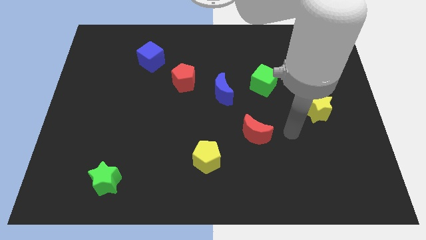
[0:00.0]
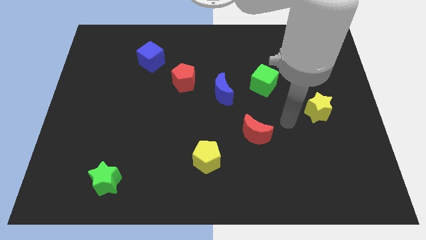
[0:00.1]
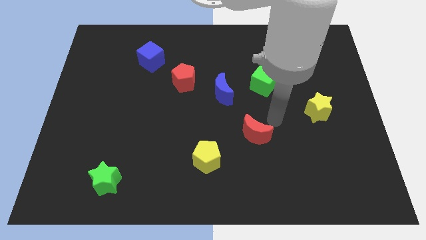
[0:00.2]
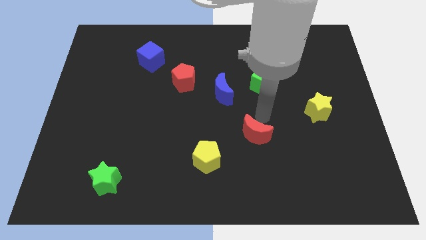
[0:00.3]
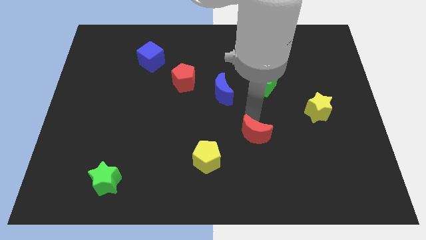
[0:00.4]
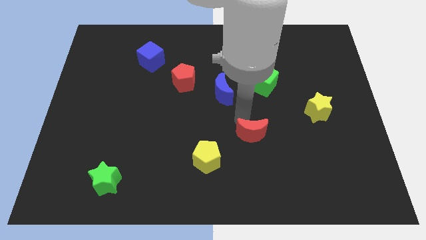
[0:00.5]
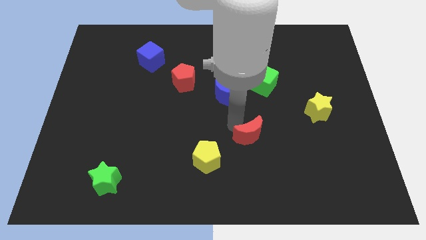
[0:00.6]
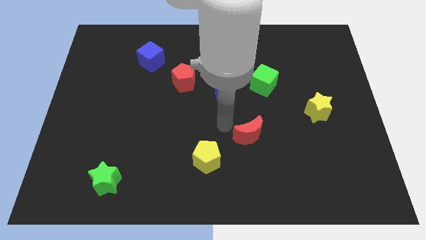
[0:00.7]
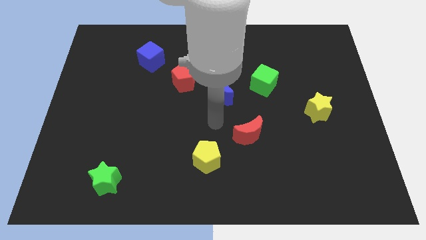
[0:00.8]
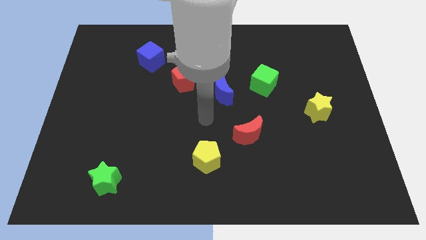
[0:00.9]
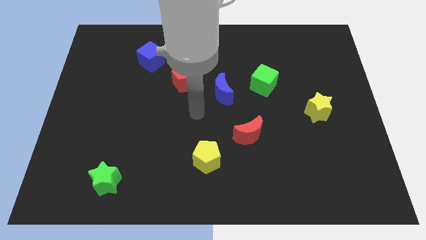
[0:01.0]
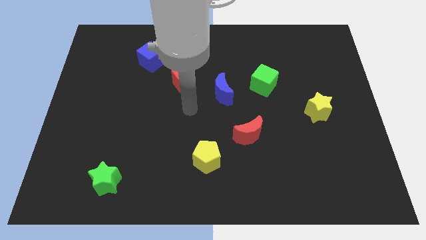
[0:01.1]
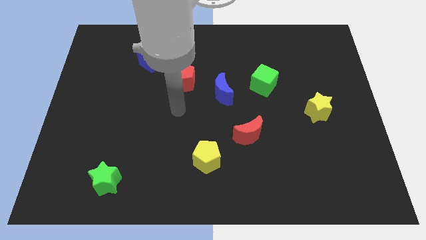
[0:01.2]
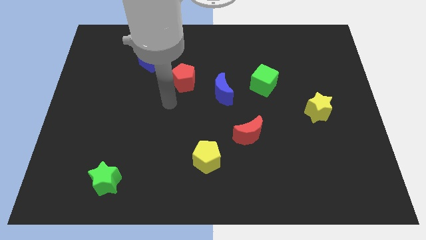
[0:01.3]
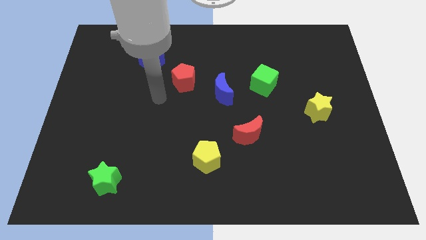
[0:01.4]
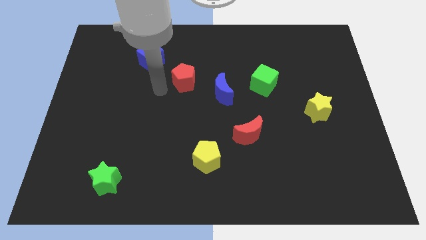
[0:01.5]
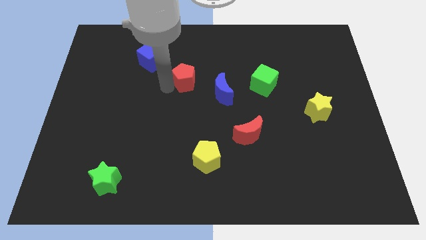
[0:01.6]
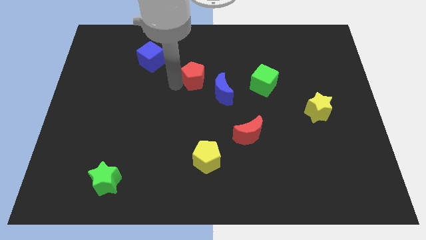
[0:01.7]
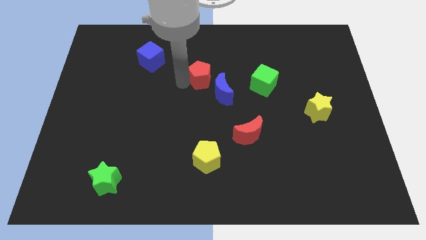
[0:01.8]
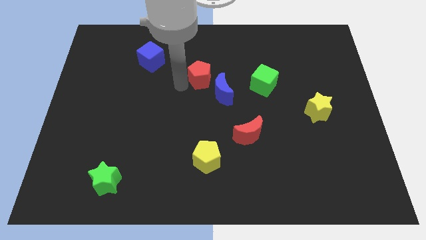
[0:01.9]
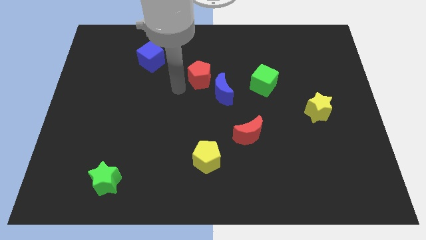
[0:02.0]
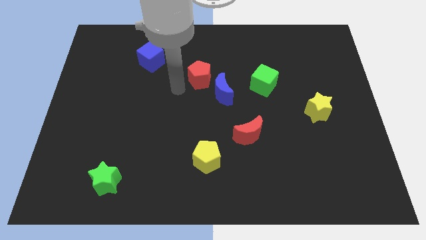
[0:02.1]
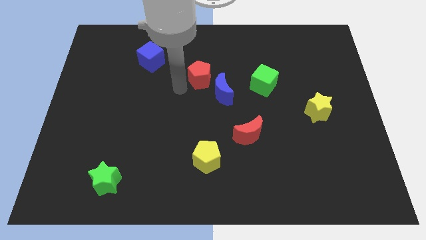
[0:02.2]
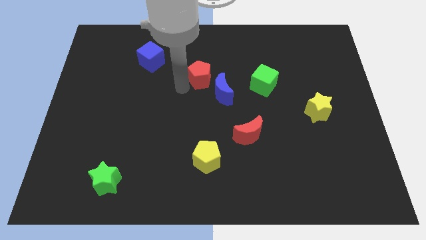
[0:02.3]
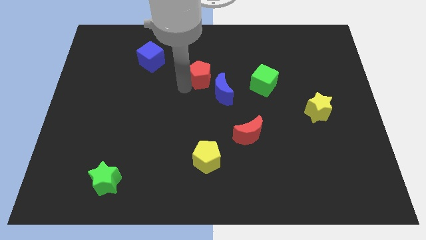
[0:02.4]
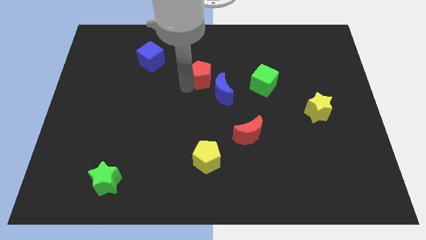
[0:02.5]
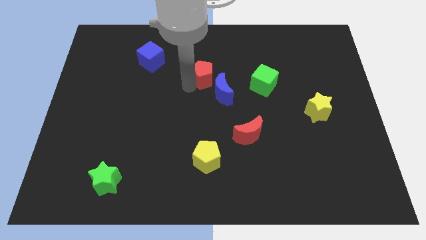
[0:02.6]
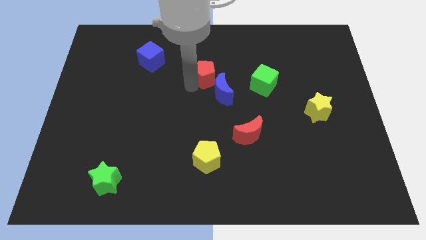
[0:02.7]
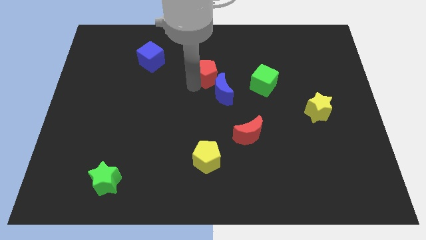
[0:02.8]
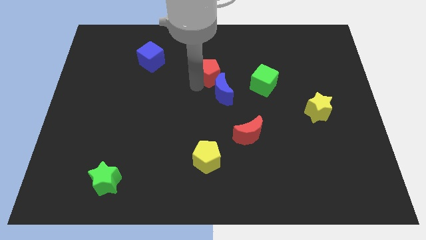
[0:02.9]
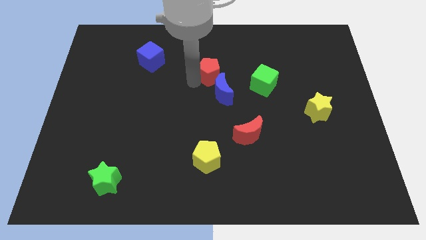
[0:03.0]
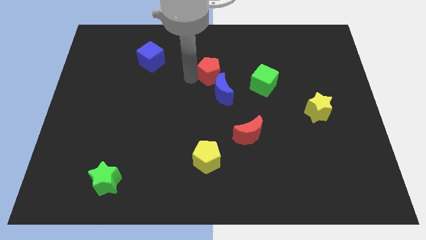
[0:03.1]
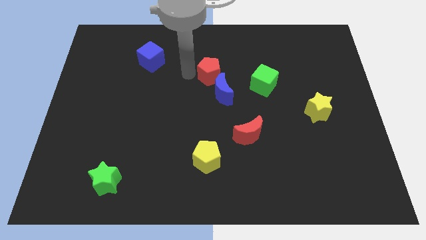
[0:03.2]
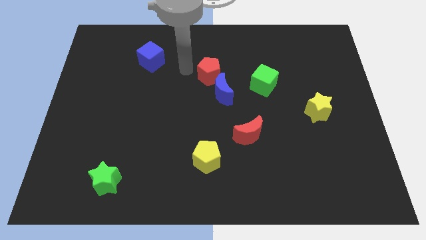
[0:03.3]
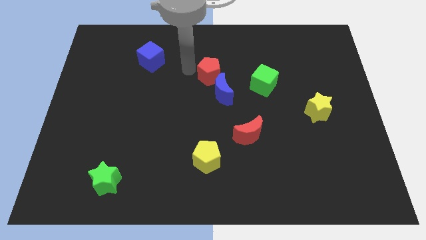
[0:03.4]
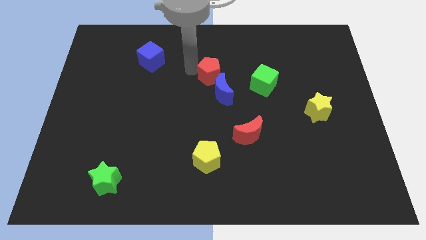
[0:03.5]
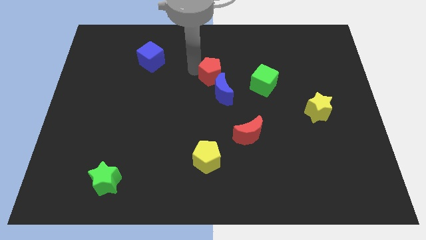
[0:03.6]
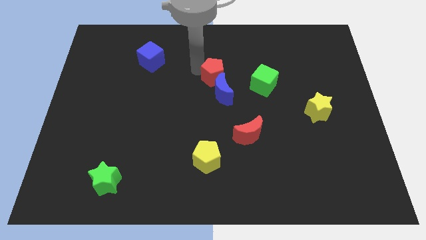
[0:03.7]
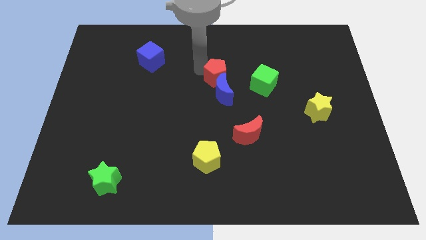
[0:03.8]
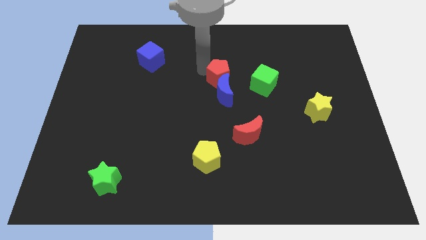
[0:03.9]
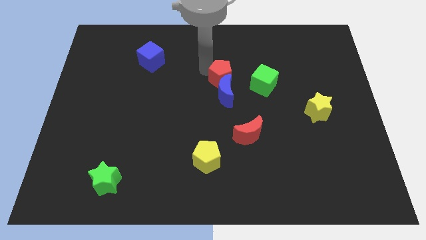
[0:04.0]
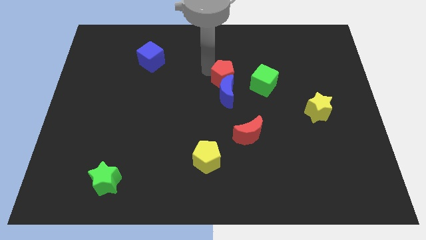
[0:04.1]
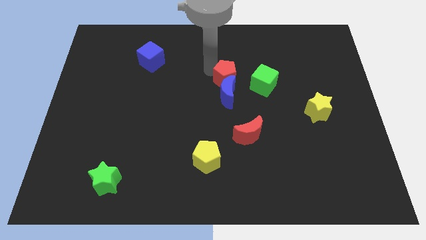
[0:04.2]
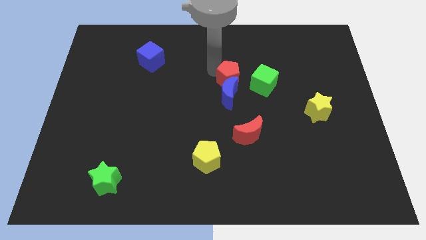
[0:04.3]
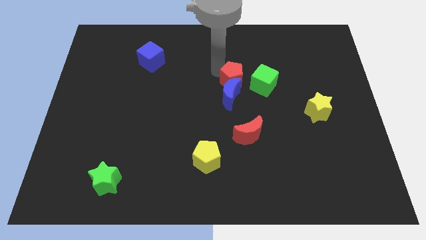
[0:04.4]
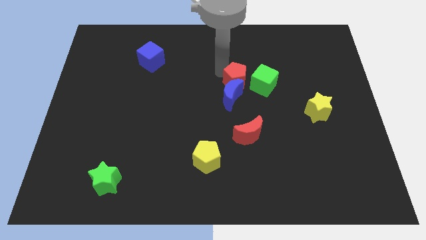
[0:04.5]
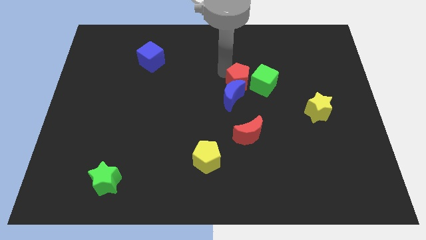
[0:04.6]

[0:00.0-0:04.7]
push the red pentagon to the green cube

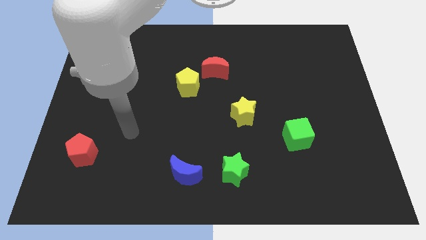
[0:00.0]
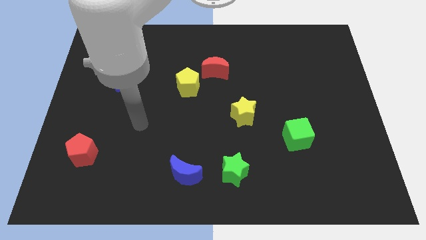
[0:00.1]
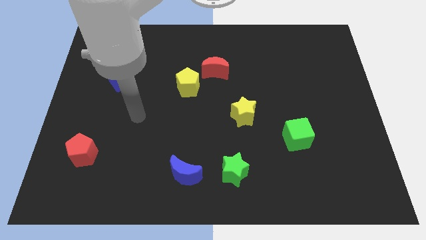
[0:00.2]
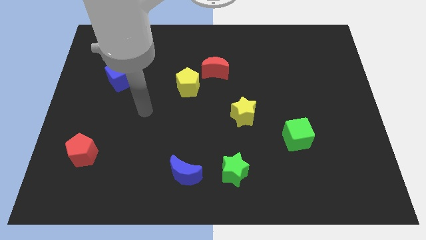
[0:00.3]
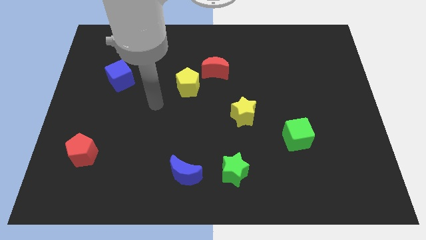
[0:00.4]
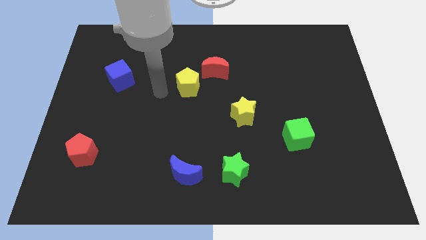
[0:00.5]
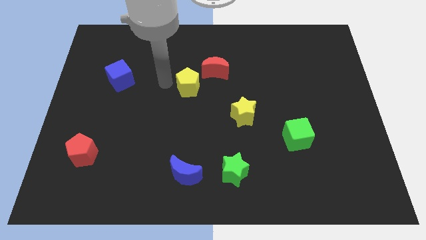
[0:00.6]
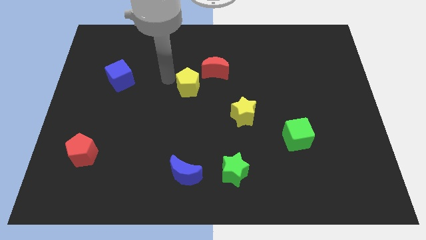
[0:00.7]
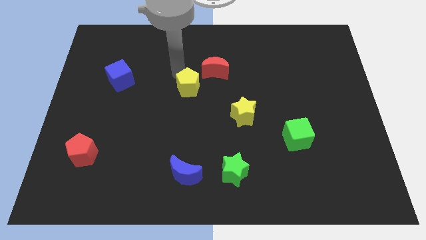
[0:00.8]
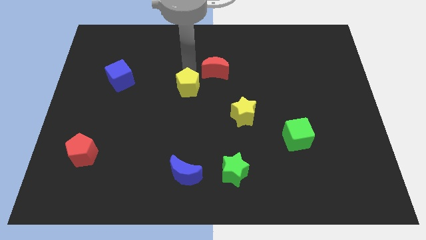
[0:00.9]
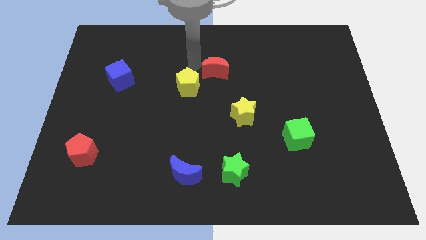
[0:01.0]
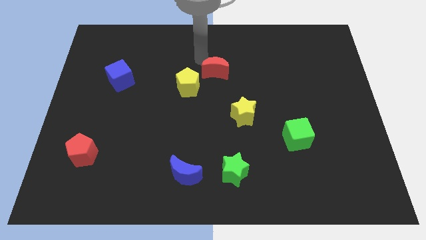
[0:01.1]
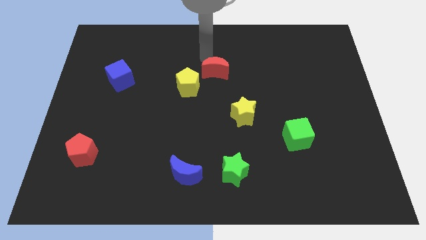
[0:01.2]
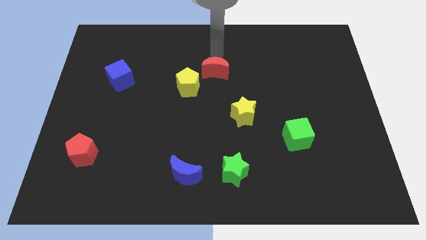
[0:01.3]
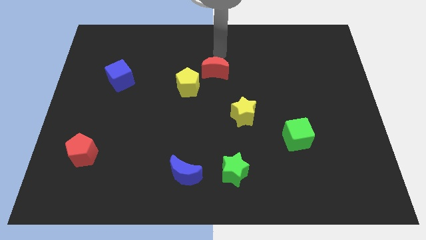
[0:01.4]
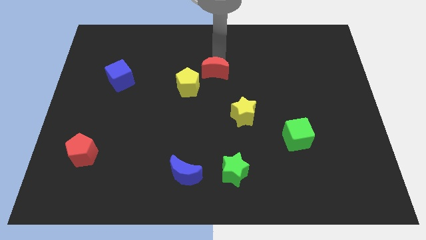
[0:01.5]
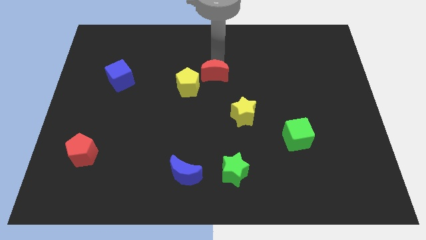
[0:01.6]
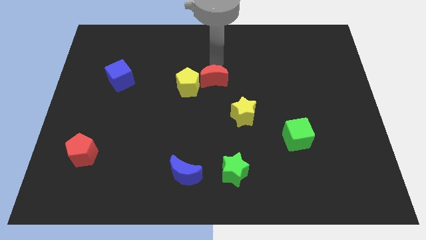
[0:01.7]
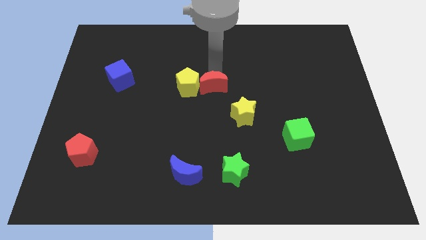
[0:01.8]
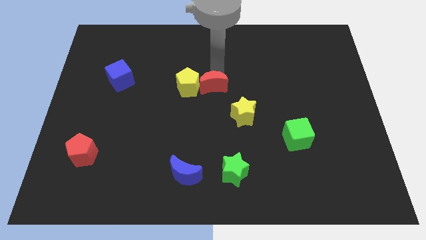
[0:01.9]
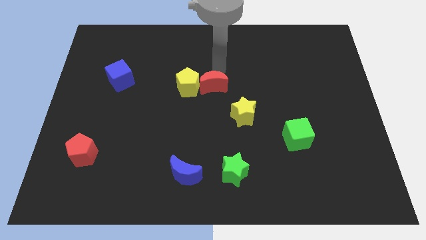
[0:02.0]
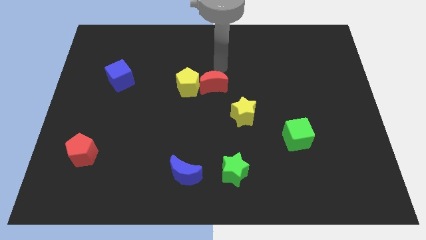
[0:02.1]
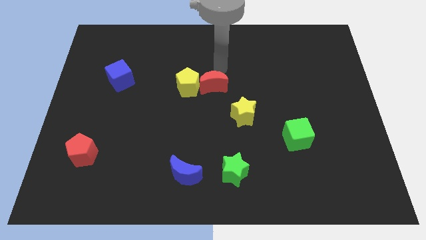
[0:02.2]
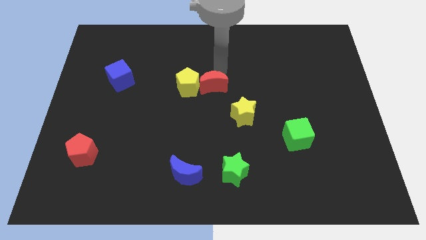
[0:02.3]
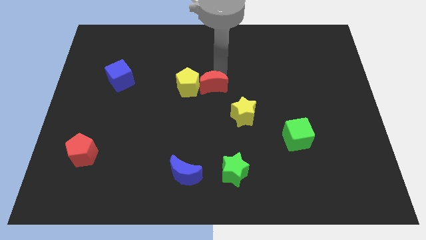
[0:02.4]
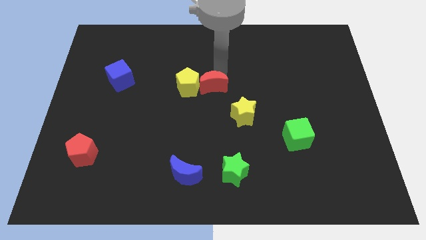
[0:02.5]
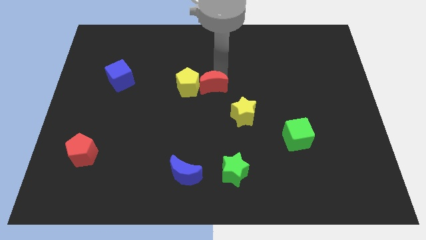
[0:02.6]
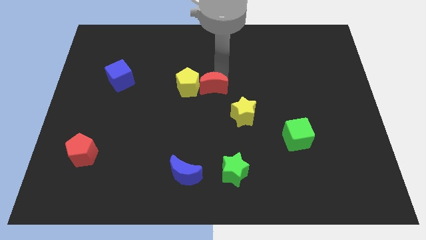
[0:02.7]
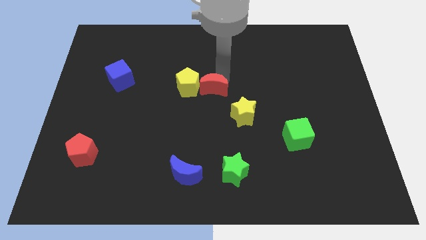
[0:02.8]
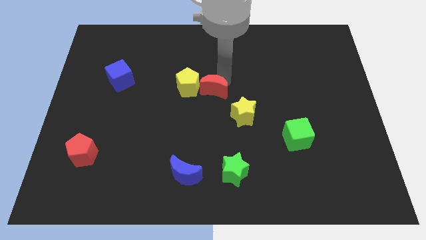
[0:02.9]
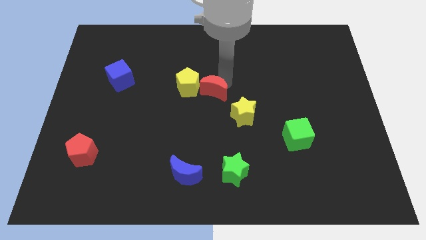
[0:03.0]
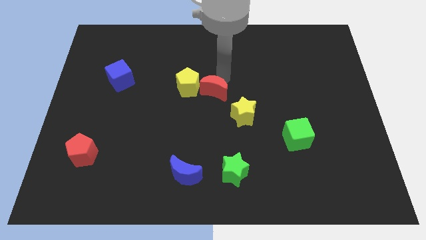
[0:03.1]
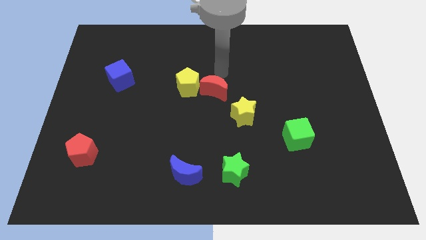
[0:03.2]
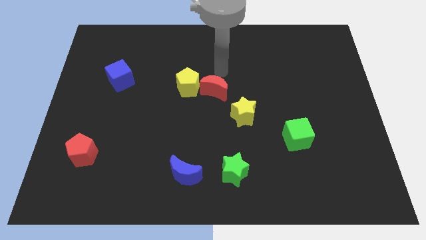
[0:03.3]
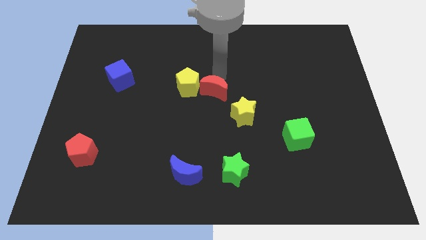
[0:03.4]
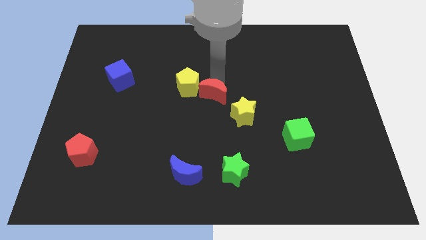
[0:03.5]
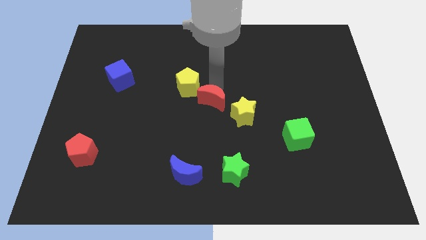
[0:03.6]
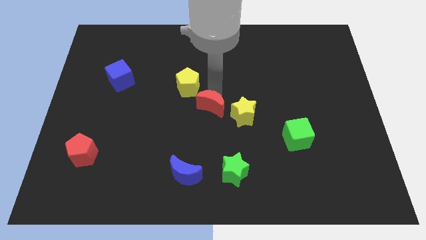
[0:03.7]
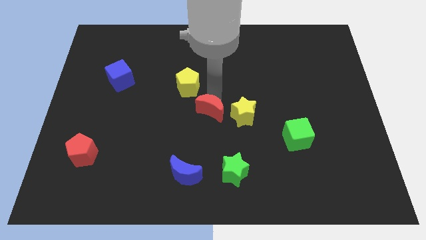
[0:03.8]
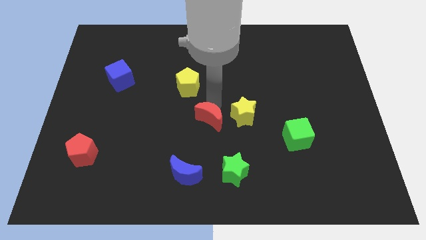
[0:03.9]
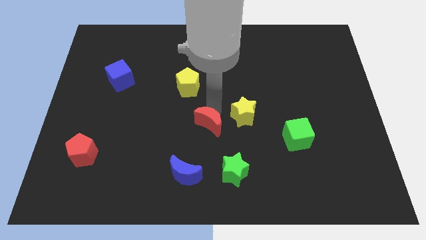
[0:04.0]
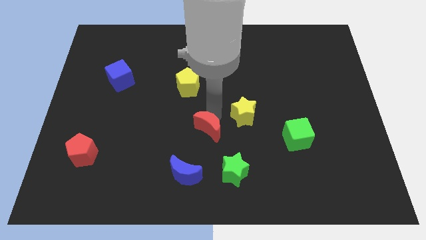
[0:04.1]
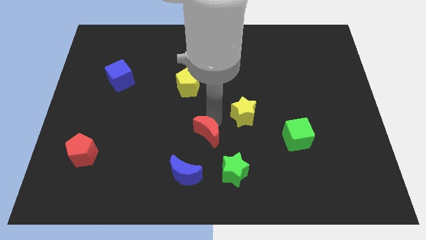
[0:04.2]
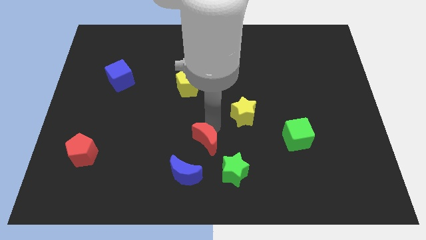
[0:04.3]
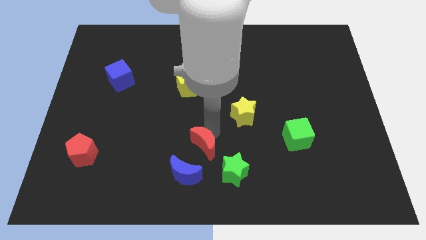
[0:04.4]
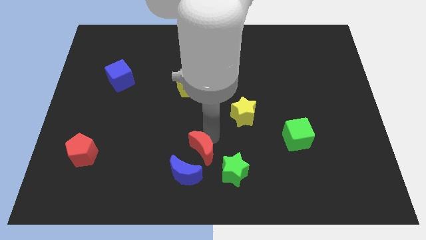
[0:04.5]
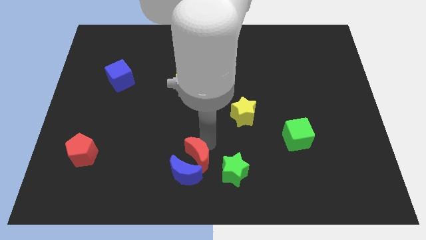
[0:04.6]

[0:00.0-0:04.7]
move the red moon to the blue moon
